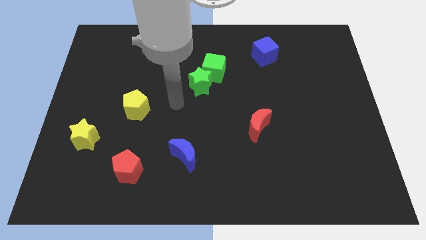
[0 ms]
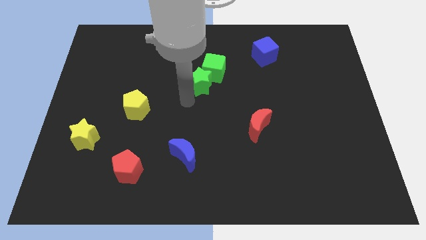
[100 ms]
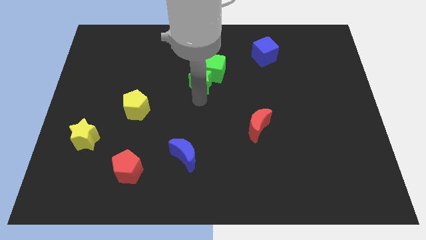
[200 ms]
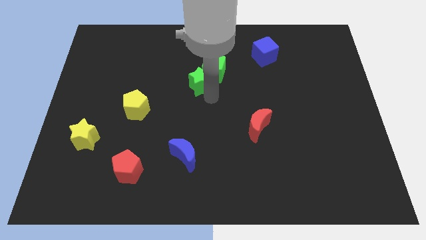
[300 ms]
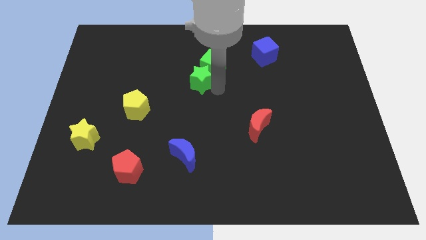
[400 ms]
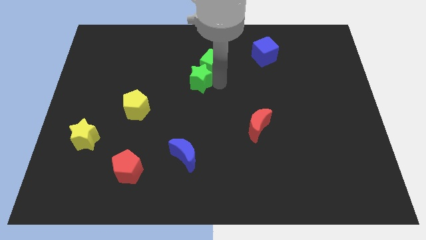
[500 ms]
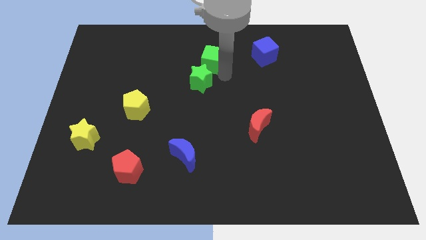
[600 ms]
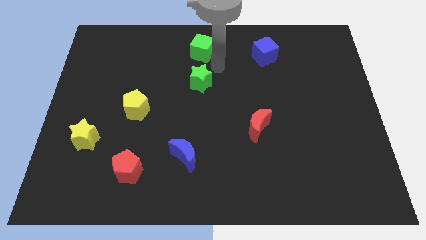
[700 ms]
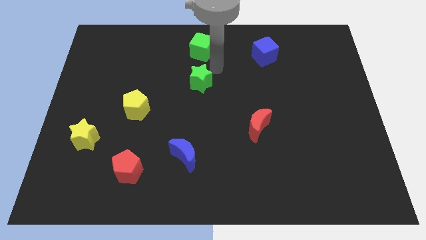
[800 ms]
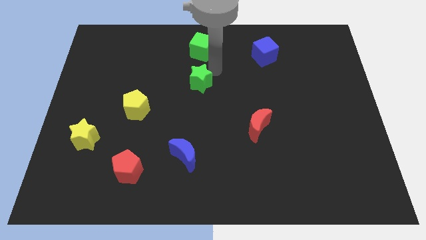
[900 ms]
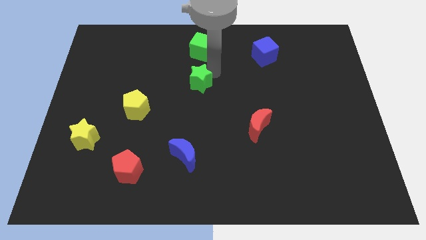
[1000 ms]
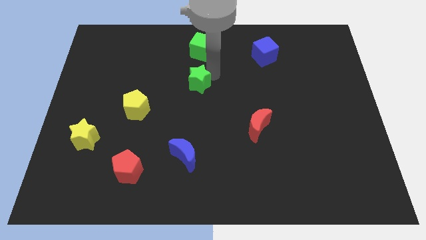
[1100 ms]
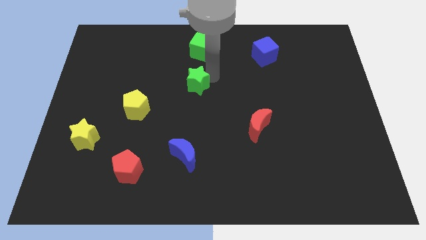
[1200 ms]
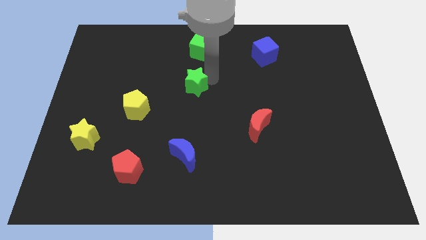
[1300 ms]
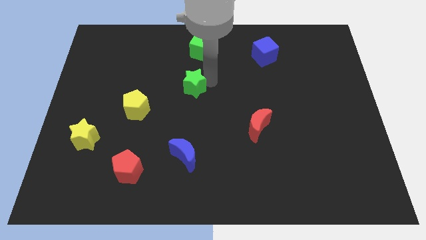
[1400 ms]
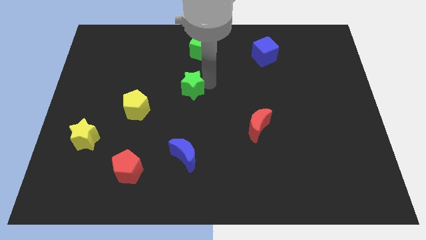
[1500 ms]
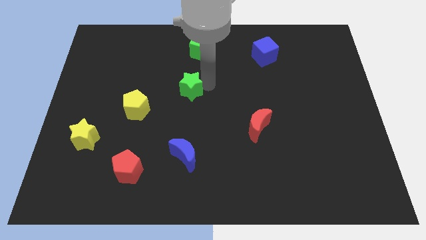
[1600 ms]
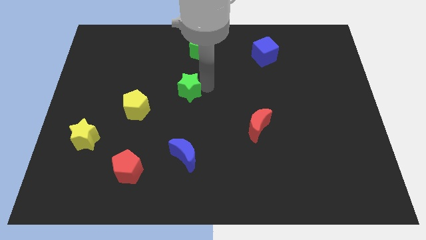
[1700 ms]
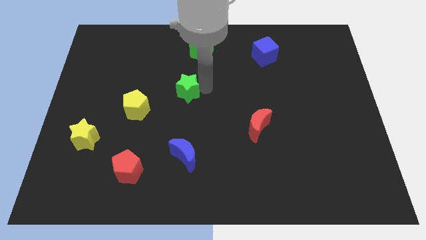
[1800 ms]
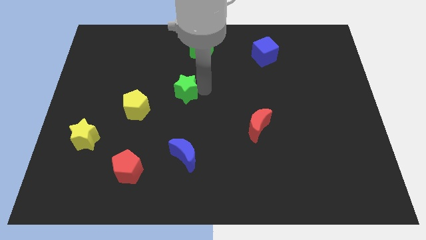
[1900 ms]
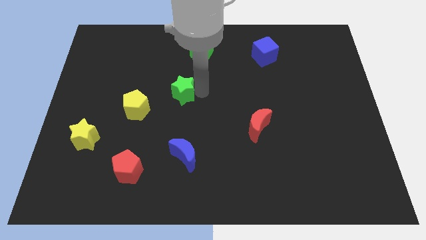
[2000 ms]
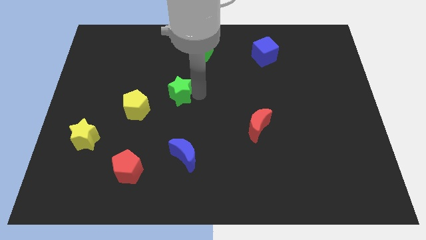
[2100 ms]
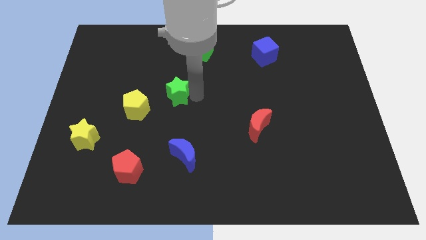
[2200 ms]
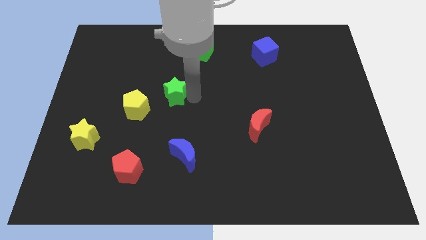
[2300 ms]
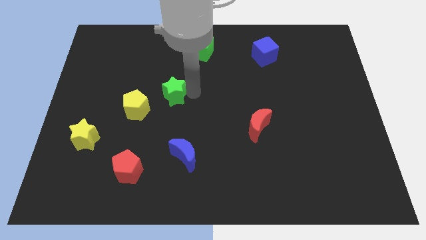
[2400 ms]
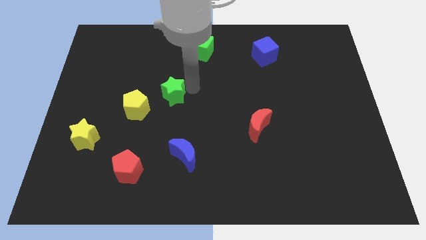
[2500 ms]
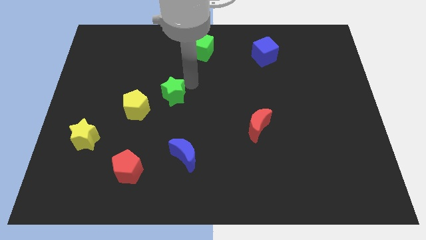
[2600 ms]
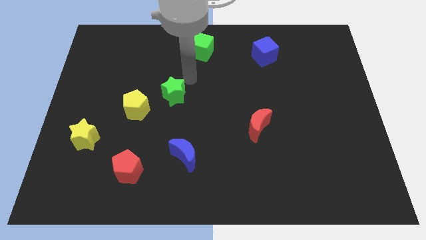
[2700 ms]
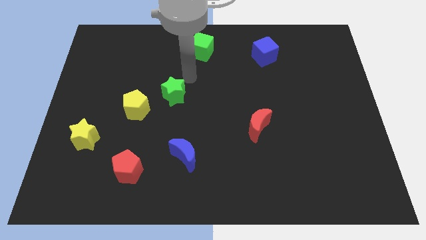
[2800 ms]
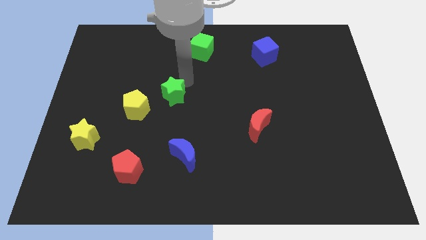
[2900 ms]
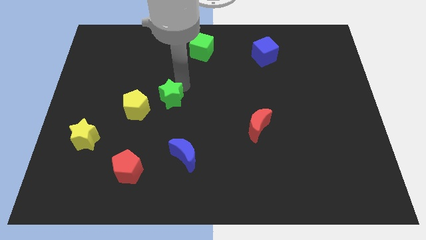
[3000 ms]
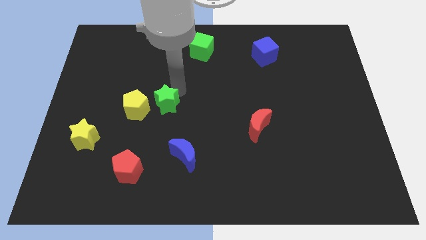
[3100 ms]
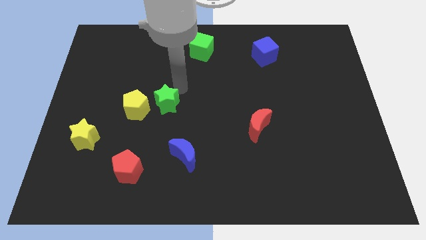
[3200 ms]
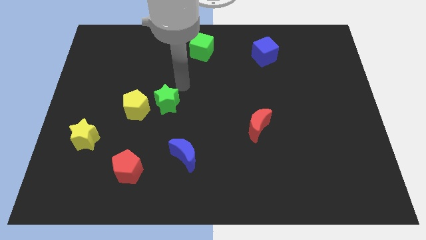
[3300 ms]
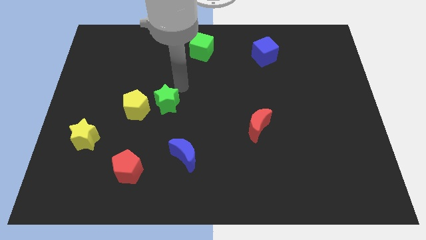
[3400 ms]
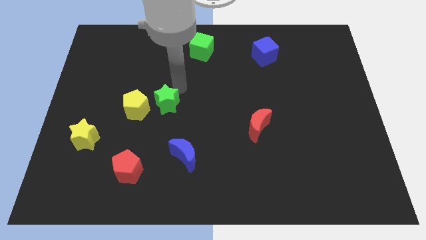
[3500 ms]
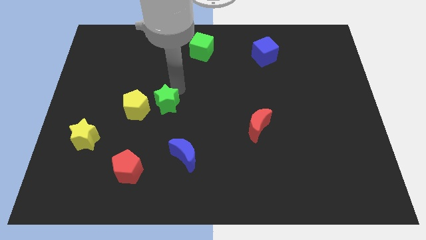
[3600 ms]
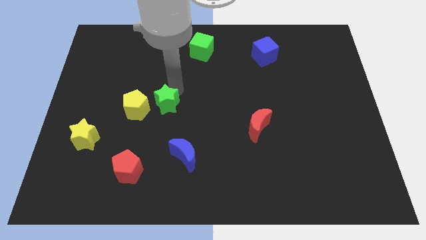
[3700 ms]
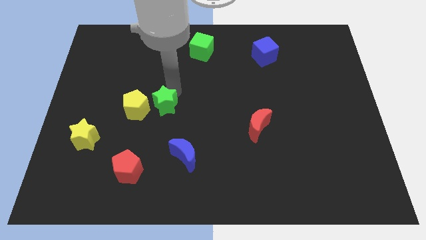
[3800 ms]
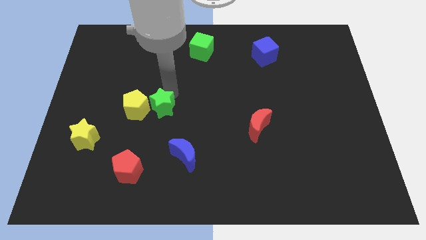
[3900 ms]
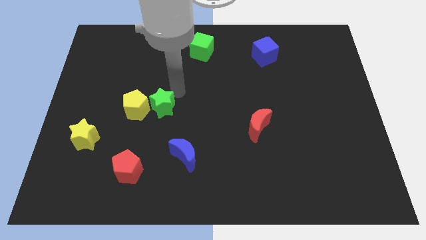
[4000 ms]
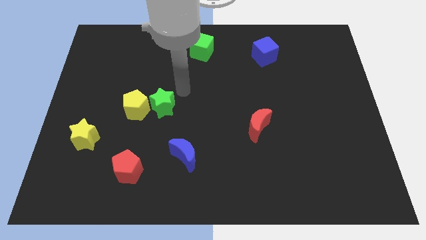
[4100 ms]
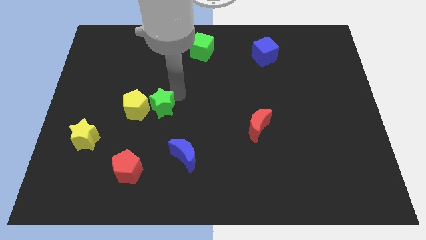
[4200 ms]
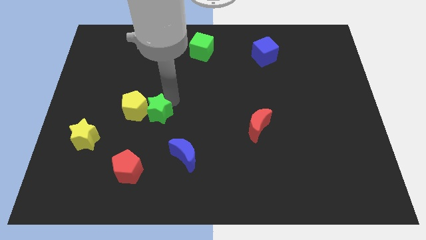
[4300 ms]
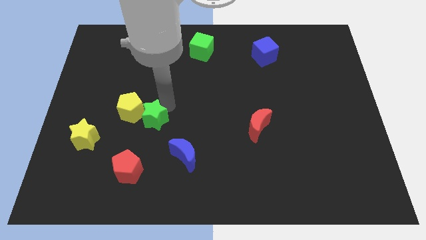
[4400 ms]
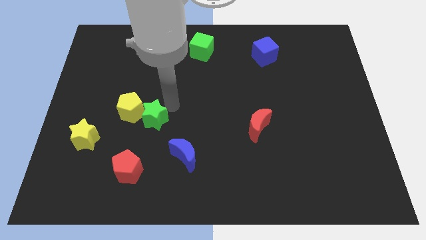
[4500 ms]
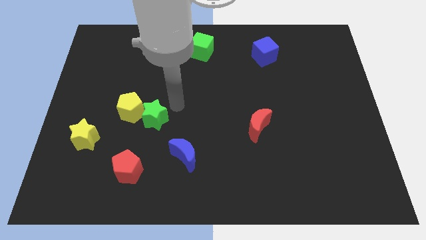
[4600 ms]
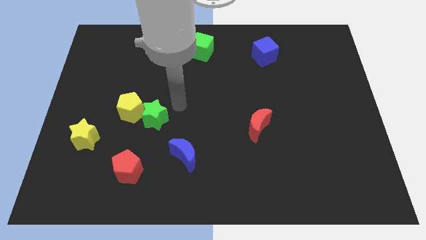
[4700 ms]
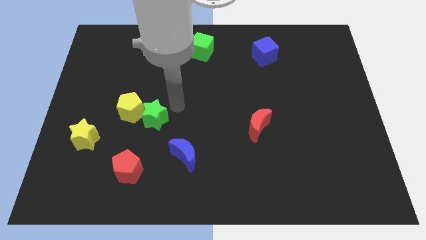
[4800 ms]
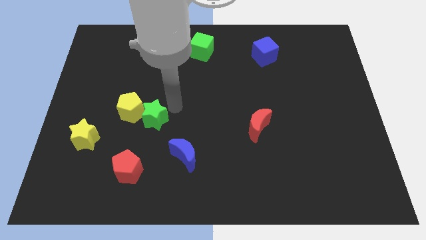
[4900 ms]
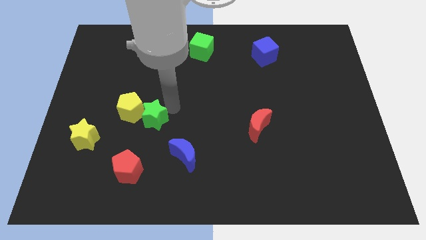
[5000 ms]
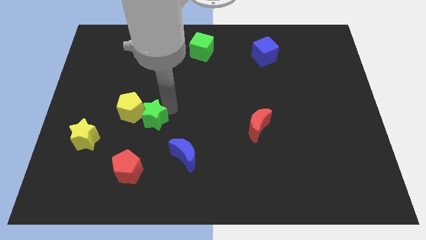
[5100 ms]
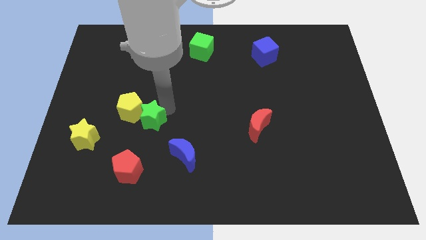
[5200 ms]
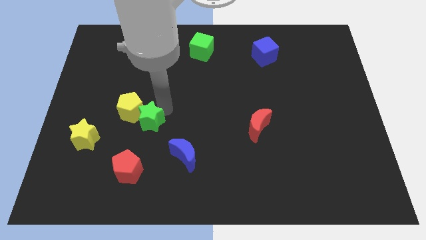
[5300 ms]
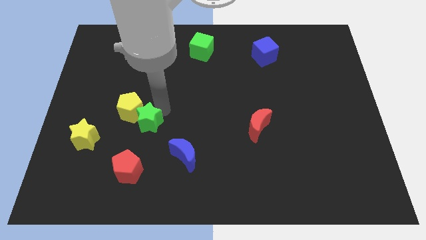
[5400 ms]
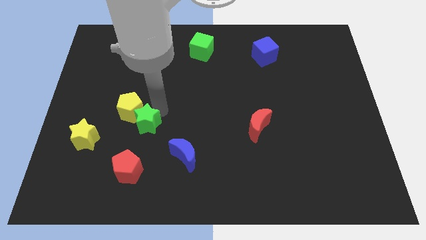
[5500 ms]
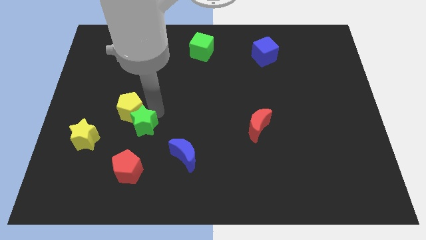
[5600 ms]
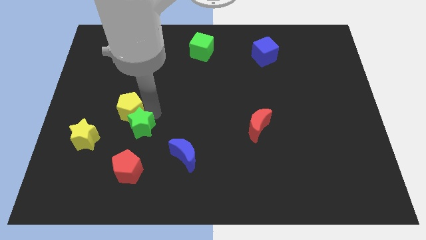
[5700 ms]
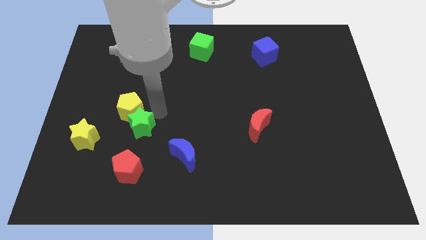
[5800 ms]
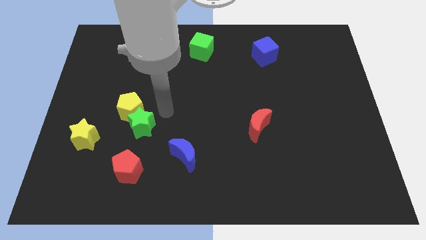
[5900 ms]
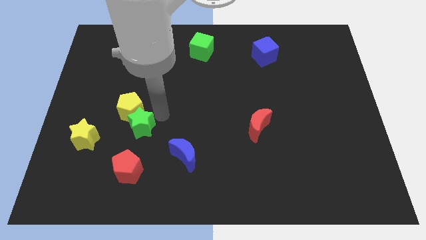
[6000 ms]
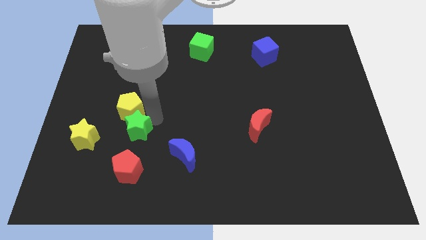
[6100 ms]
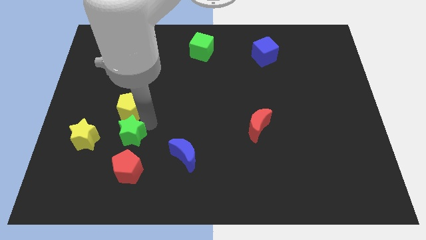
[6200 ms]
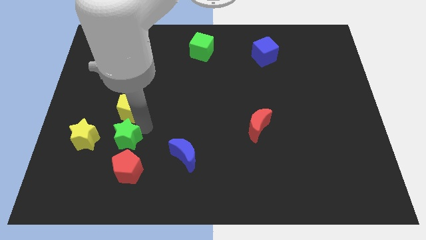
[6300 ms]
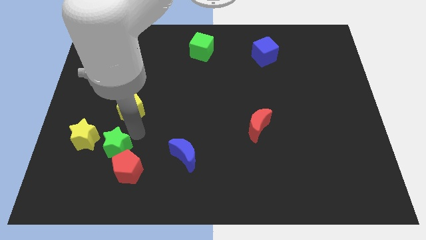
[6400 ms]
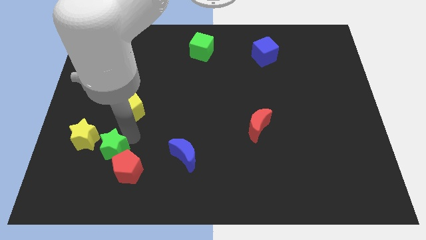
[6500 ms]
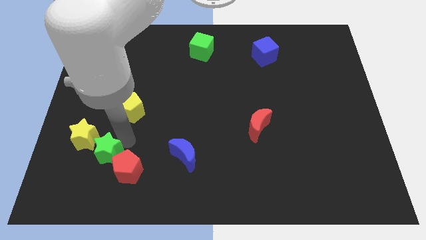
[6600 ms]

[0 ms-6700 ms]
put the green star to the left of the red pentagon
